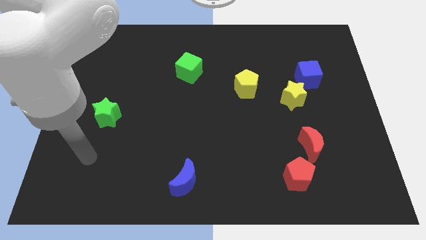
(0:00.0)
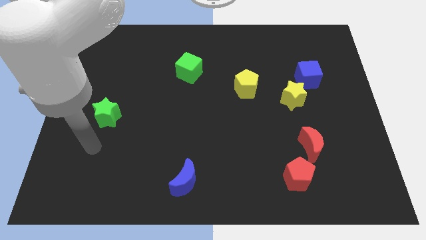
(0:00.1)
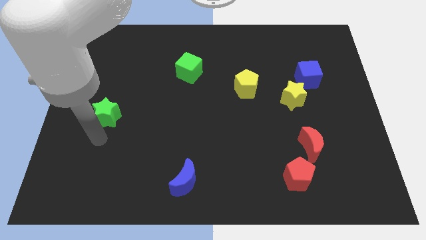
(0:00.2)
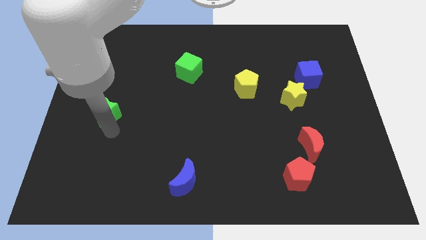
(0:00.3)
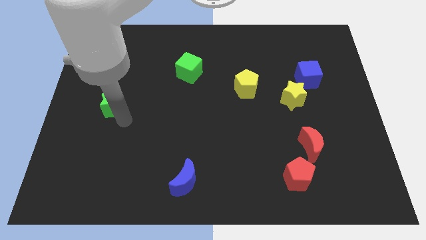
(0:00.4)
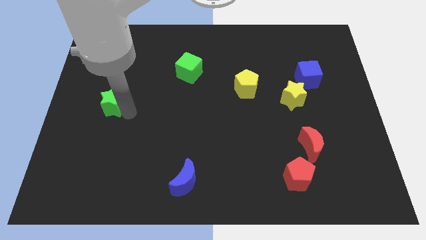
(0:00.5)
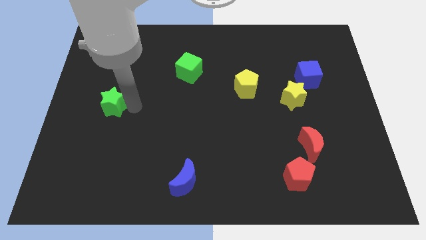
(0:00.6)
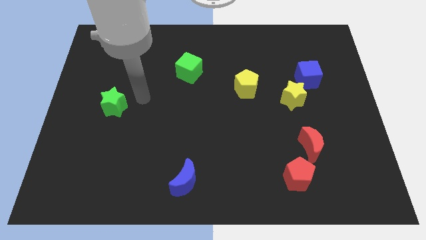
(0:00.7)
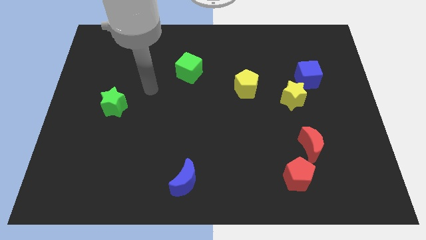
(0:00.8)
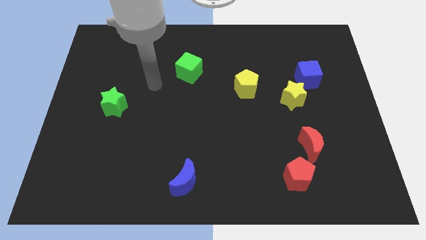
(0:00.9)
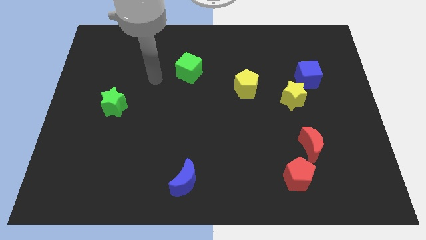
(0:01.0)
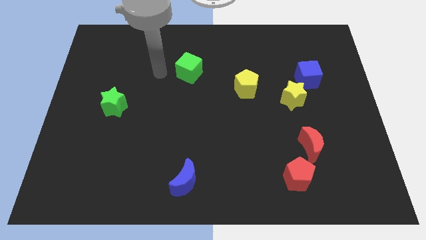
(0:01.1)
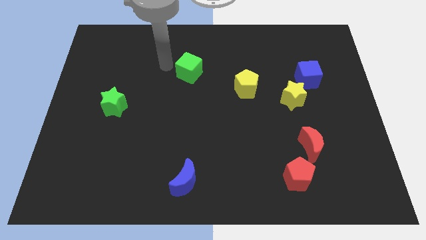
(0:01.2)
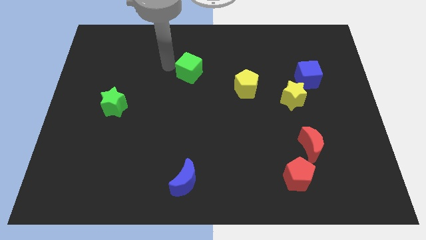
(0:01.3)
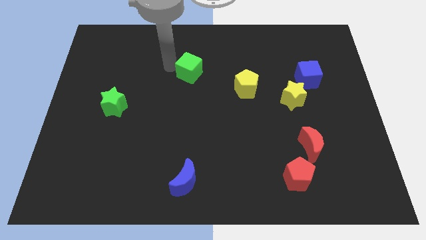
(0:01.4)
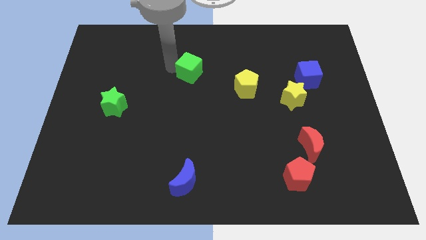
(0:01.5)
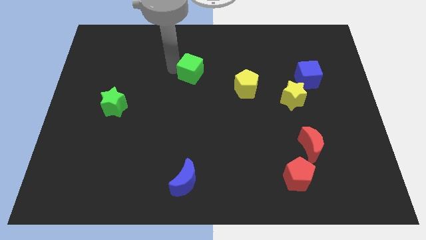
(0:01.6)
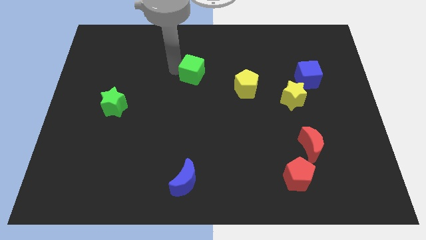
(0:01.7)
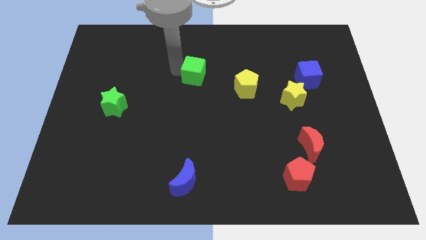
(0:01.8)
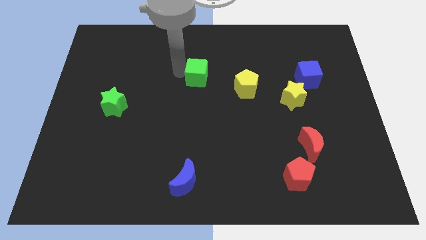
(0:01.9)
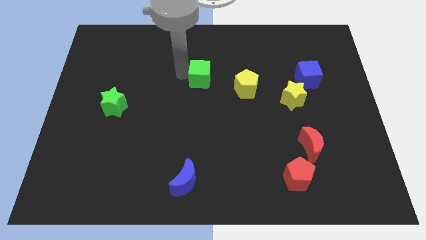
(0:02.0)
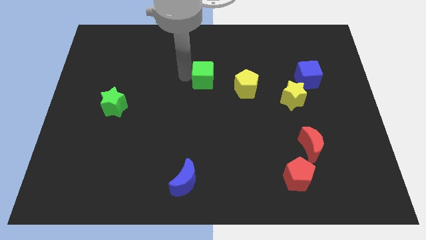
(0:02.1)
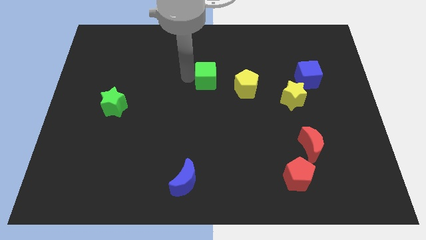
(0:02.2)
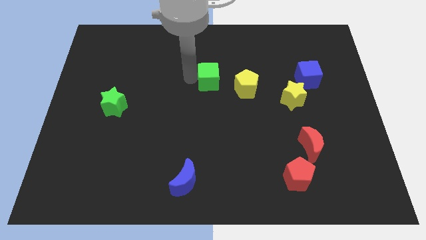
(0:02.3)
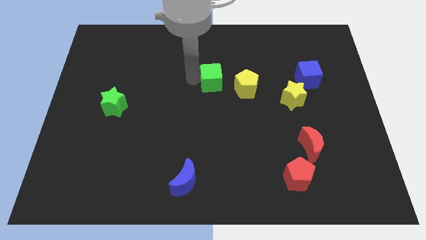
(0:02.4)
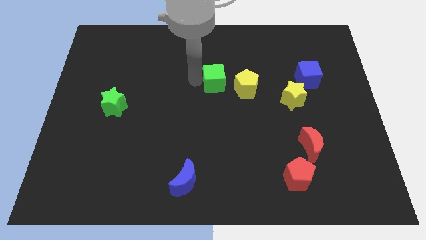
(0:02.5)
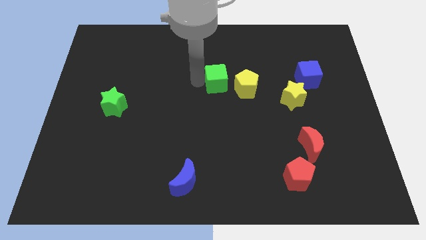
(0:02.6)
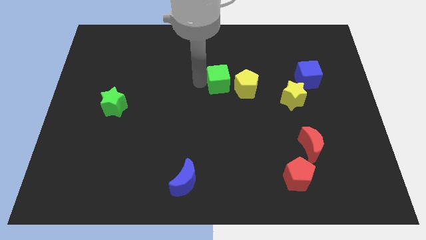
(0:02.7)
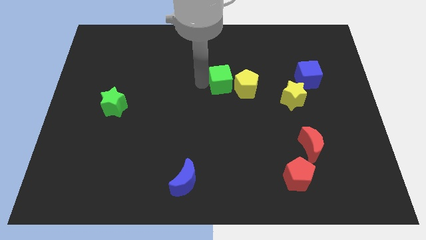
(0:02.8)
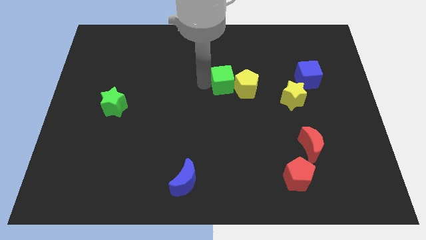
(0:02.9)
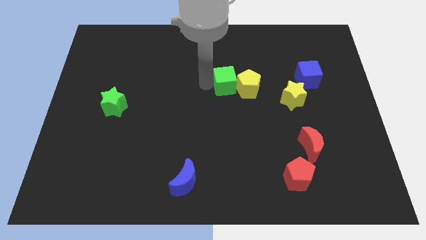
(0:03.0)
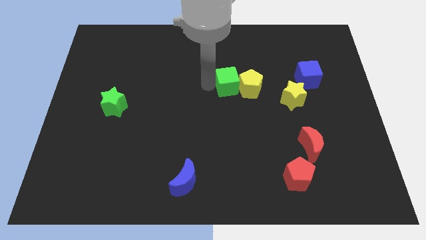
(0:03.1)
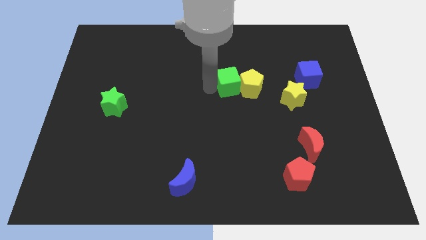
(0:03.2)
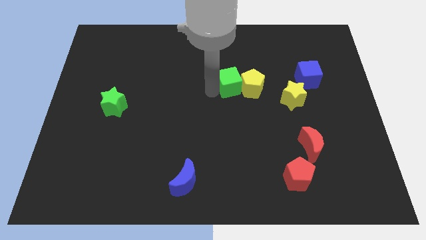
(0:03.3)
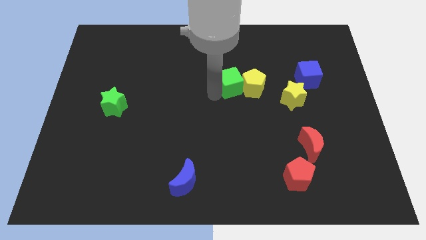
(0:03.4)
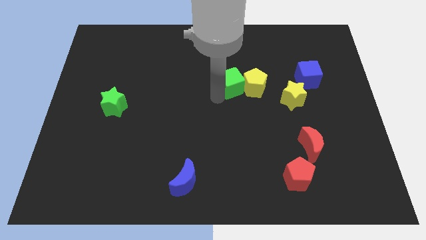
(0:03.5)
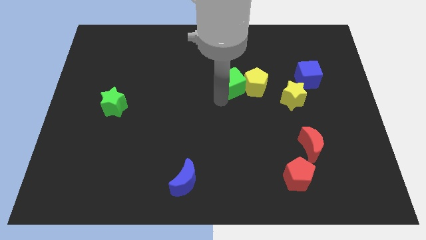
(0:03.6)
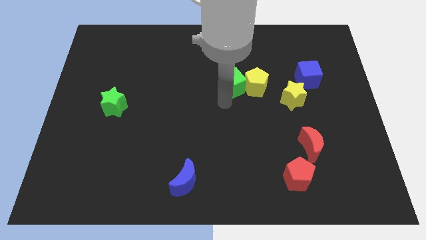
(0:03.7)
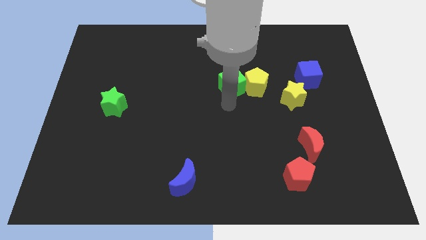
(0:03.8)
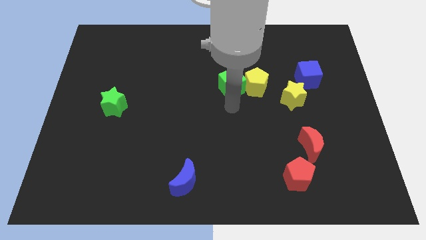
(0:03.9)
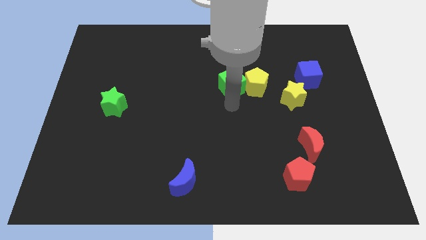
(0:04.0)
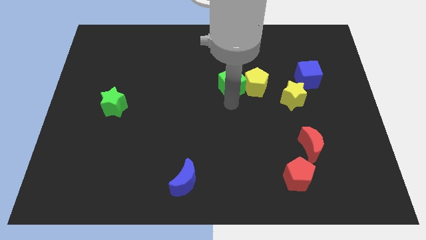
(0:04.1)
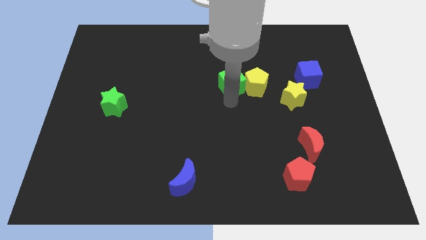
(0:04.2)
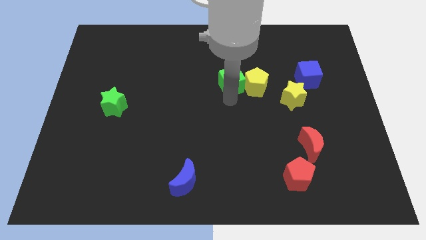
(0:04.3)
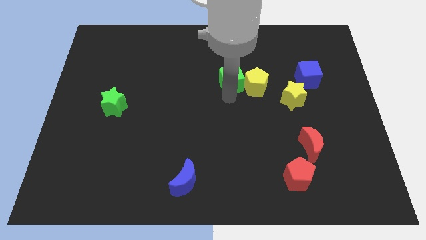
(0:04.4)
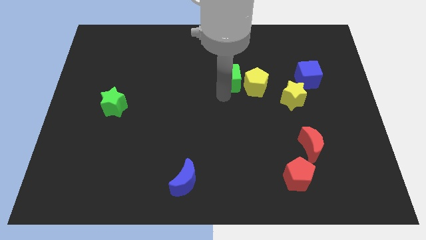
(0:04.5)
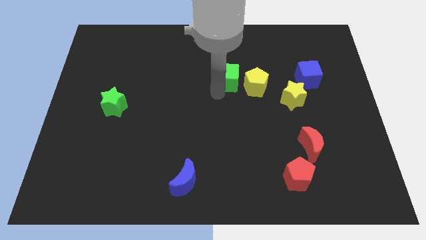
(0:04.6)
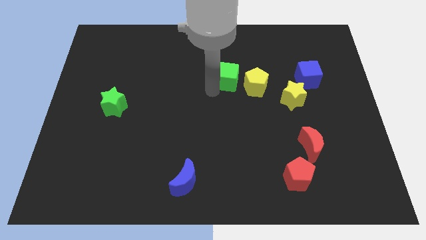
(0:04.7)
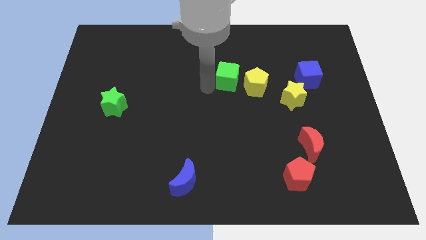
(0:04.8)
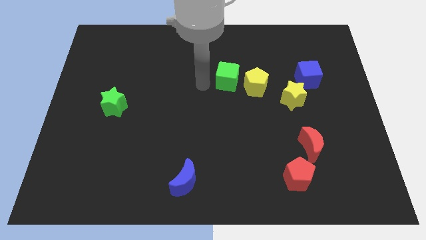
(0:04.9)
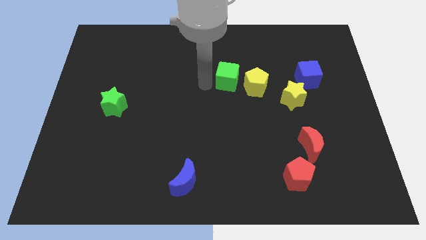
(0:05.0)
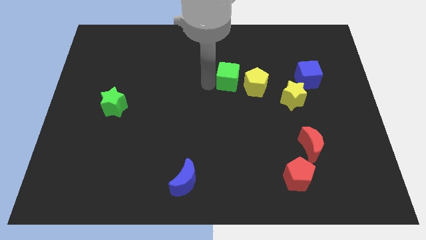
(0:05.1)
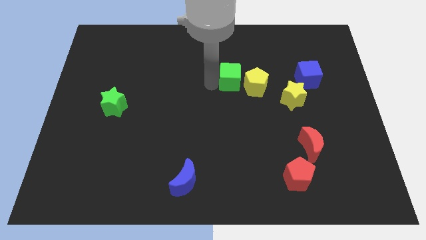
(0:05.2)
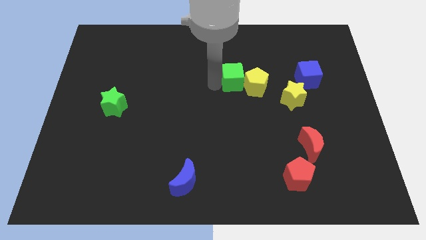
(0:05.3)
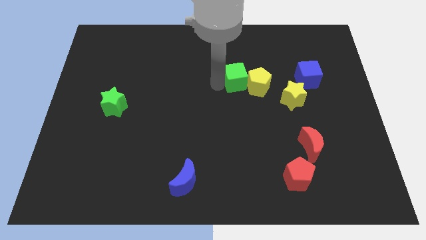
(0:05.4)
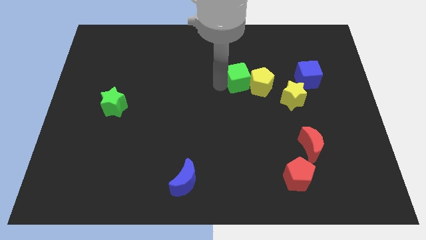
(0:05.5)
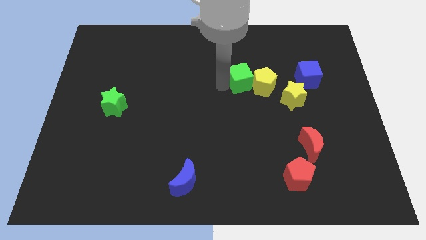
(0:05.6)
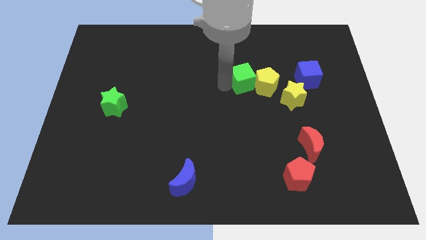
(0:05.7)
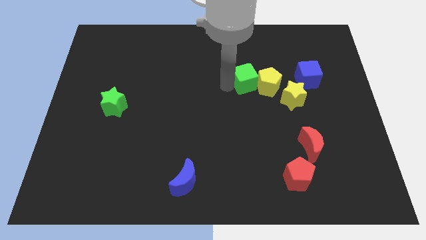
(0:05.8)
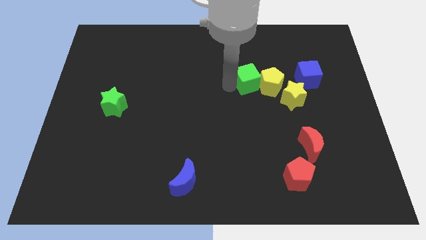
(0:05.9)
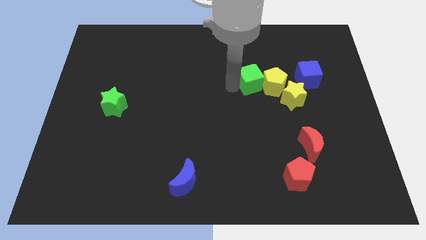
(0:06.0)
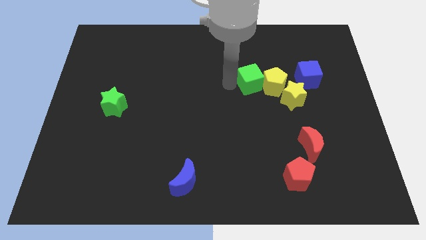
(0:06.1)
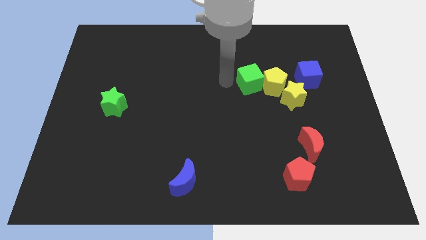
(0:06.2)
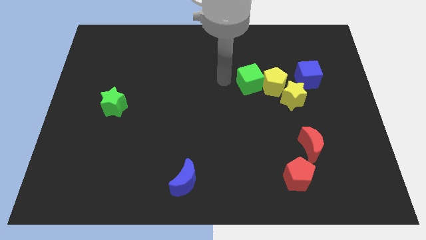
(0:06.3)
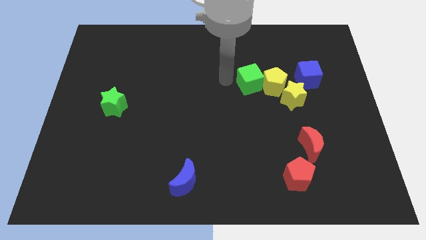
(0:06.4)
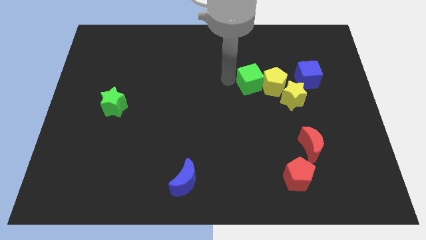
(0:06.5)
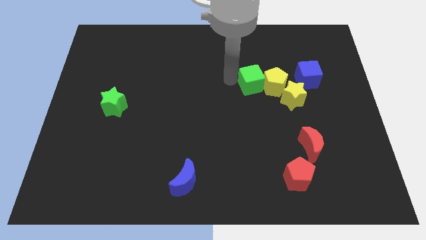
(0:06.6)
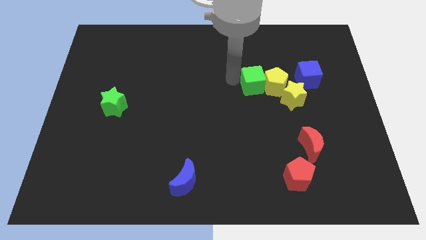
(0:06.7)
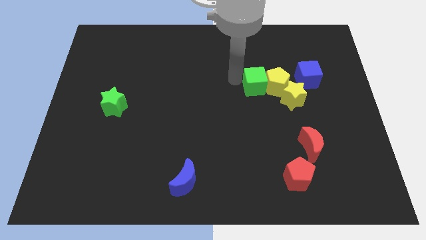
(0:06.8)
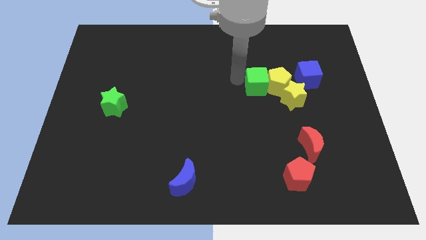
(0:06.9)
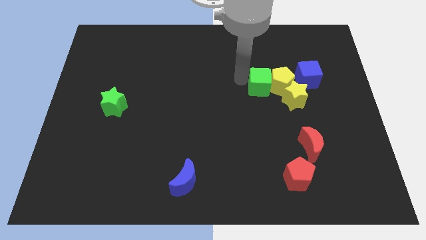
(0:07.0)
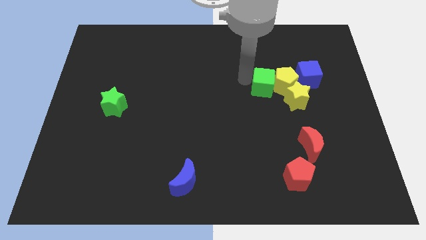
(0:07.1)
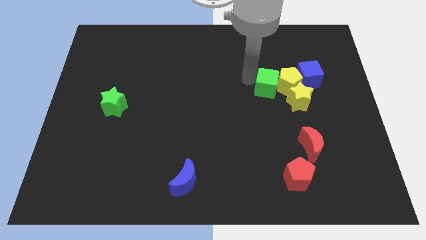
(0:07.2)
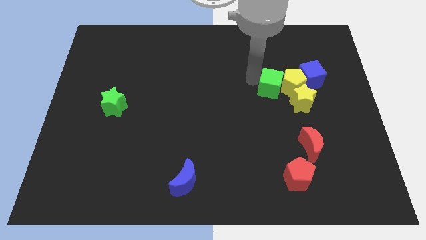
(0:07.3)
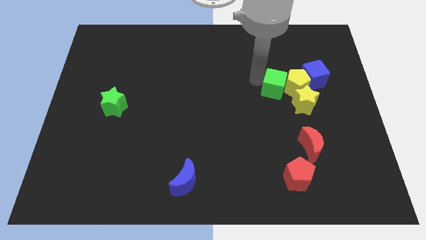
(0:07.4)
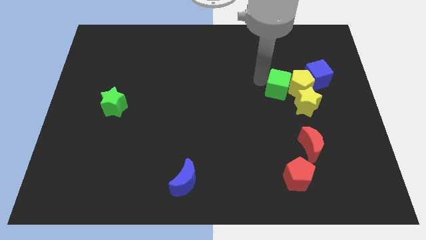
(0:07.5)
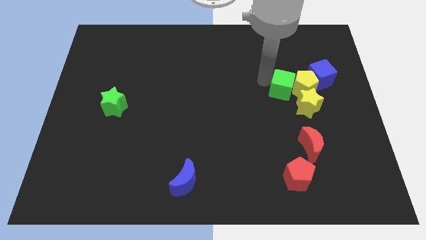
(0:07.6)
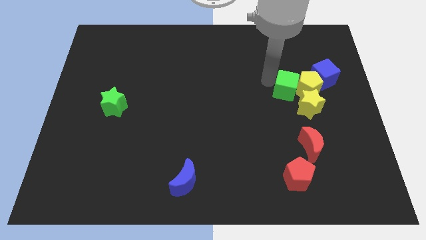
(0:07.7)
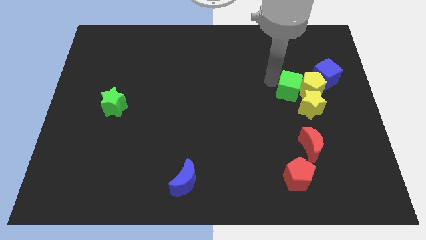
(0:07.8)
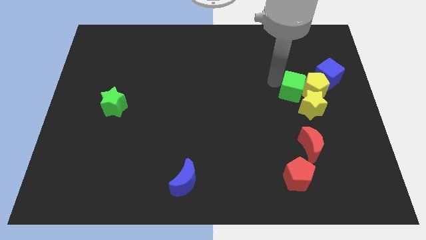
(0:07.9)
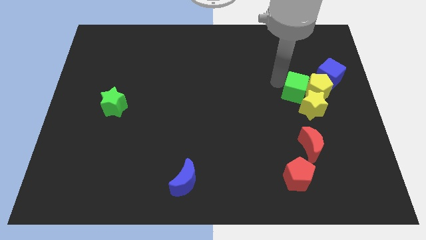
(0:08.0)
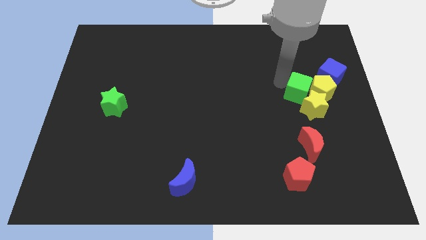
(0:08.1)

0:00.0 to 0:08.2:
slide the green cube towards the yellow star
